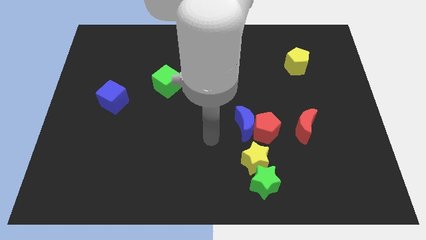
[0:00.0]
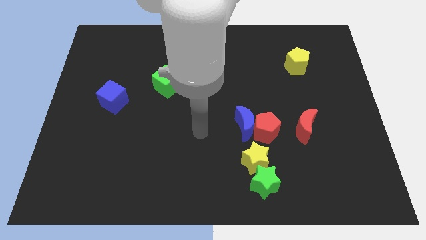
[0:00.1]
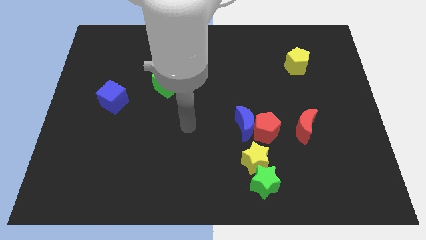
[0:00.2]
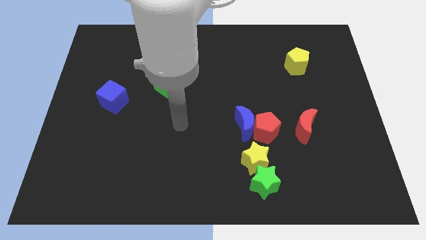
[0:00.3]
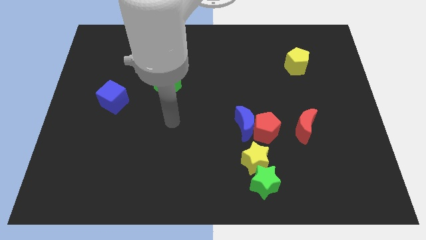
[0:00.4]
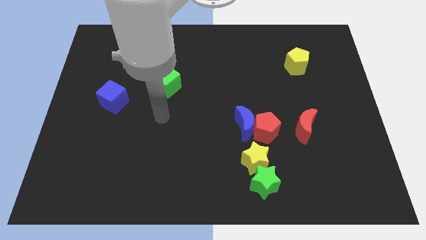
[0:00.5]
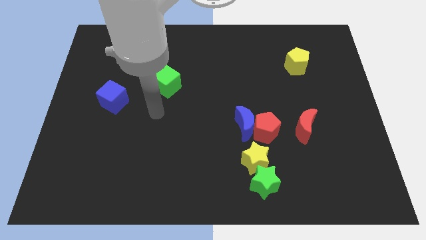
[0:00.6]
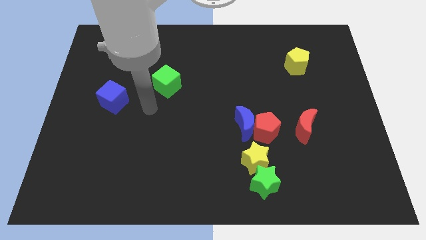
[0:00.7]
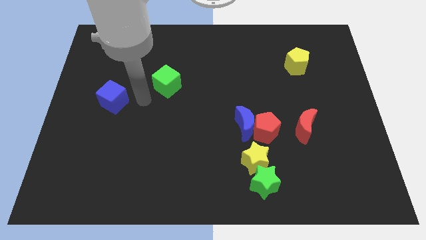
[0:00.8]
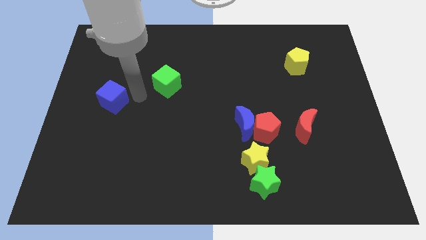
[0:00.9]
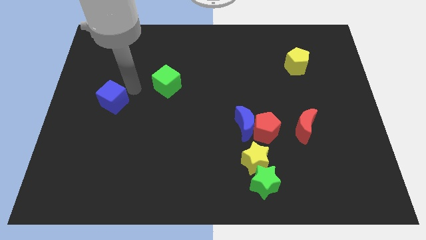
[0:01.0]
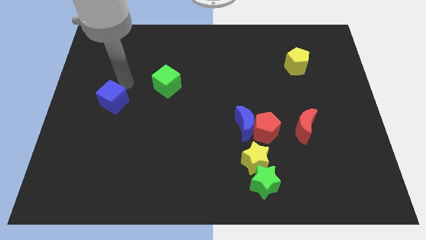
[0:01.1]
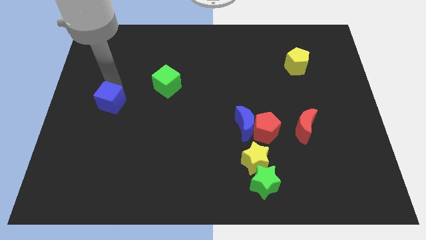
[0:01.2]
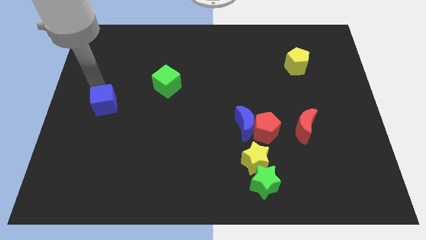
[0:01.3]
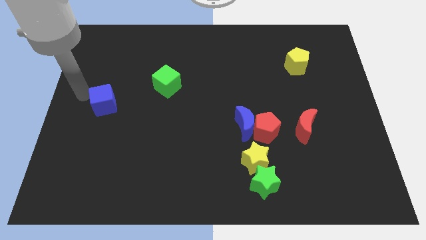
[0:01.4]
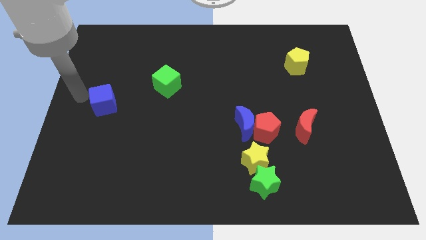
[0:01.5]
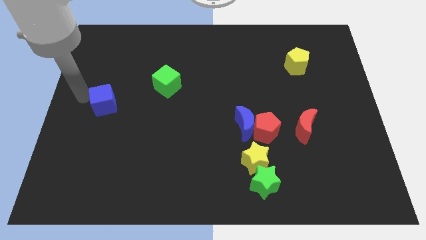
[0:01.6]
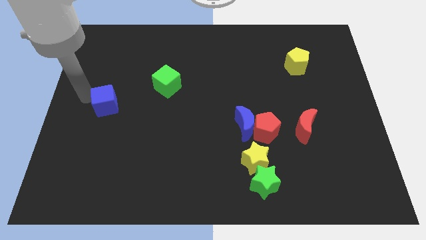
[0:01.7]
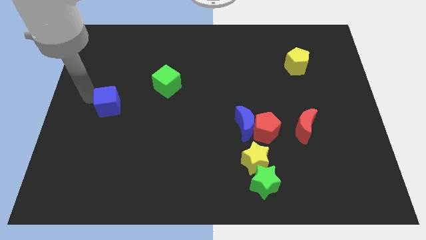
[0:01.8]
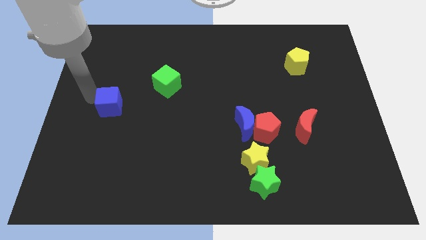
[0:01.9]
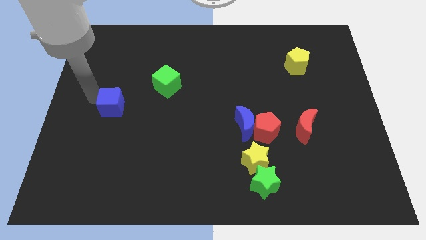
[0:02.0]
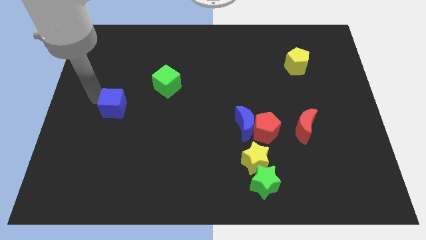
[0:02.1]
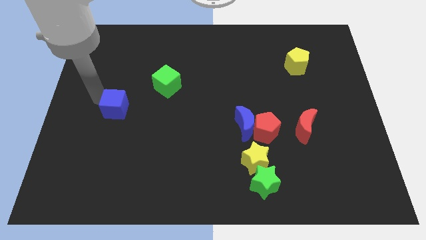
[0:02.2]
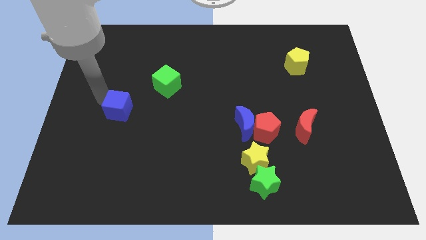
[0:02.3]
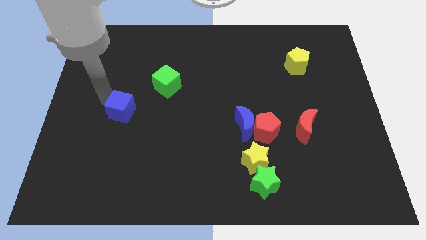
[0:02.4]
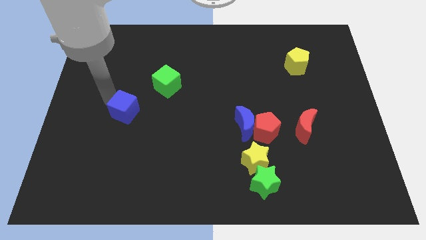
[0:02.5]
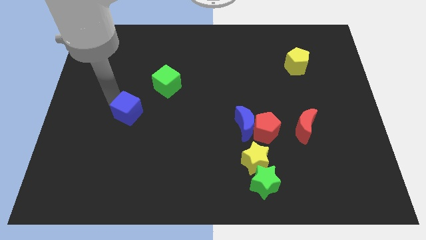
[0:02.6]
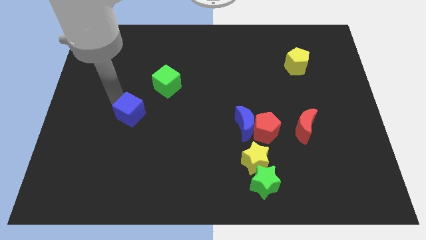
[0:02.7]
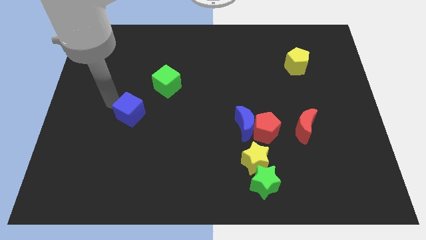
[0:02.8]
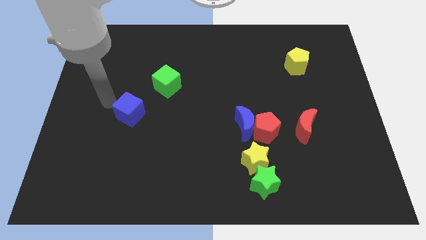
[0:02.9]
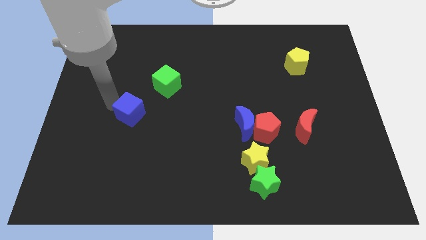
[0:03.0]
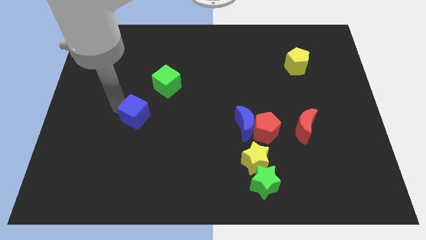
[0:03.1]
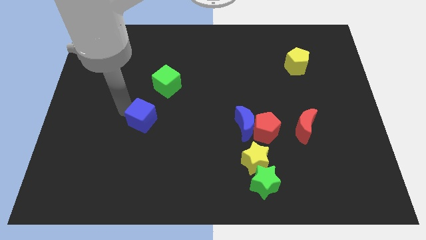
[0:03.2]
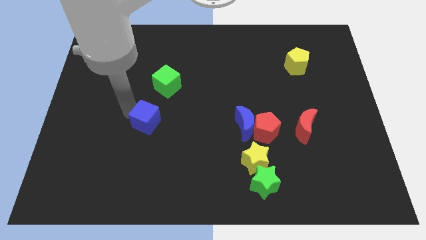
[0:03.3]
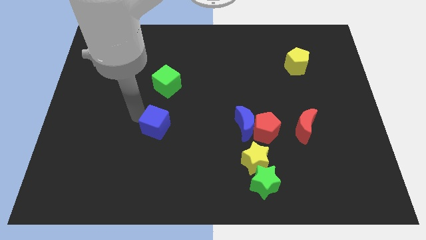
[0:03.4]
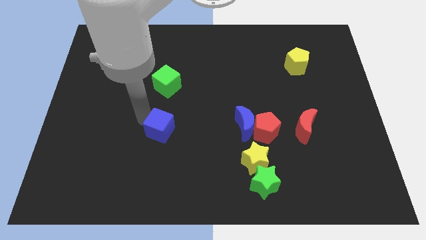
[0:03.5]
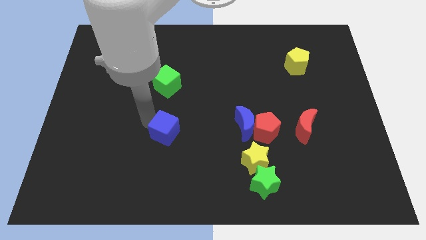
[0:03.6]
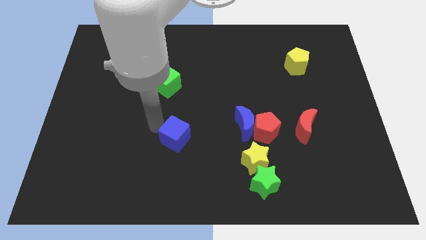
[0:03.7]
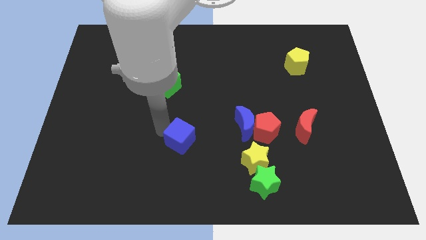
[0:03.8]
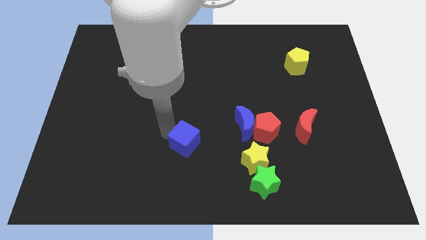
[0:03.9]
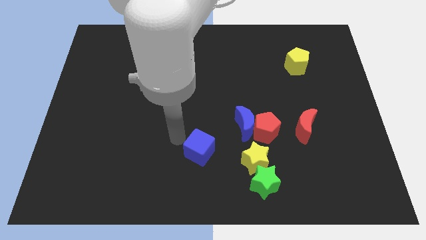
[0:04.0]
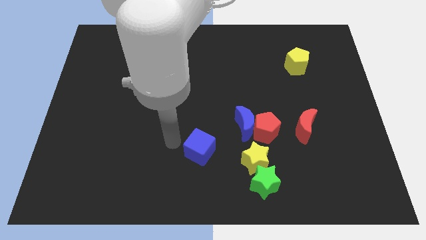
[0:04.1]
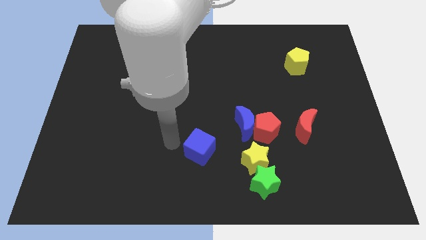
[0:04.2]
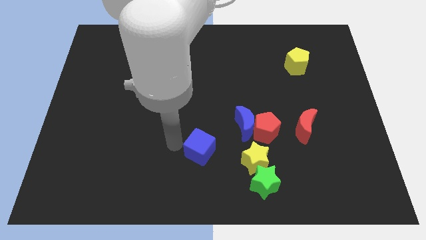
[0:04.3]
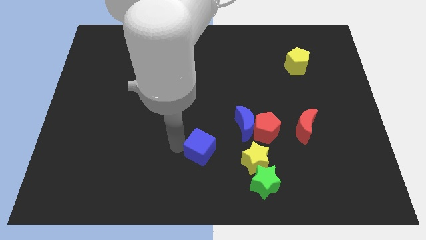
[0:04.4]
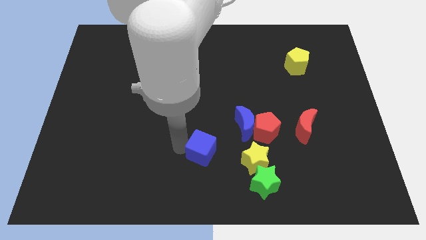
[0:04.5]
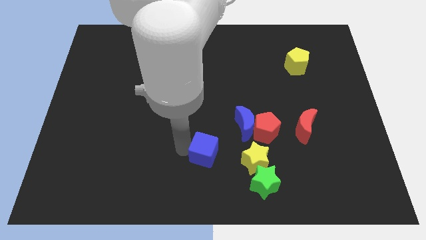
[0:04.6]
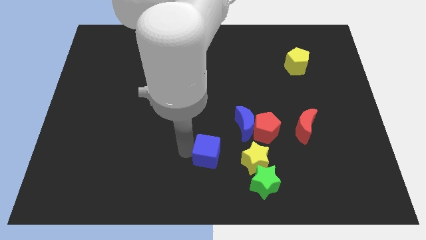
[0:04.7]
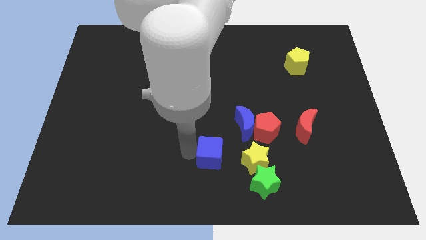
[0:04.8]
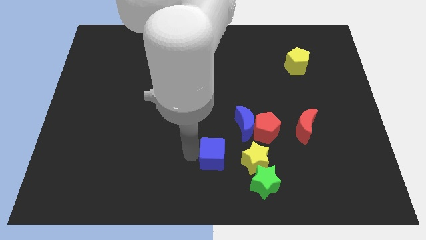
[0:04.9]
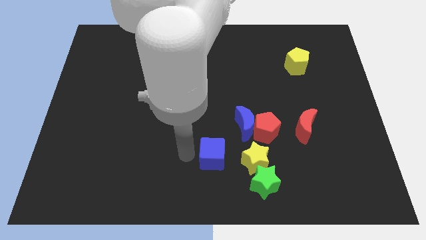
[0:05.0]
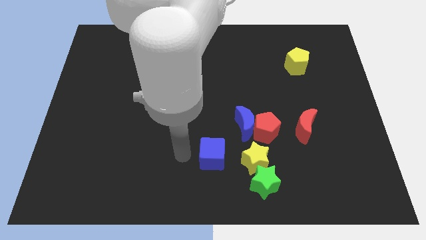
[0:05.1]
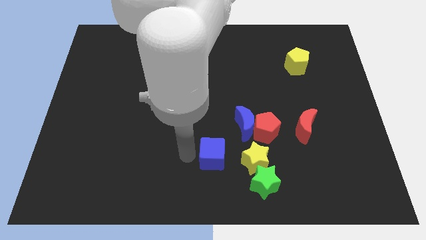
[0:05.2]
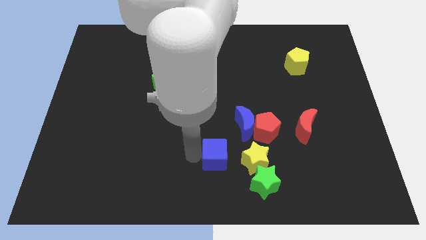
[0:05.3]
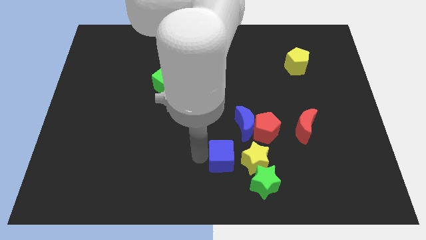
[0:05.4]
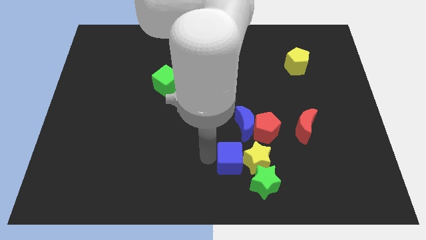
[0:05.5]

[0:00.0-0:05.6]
move the blue cube next to the yellow star
